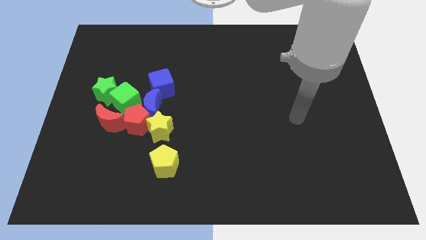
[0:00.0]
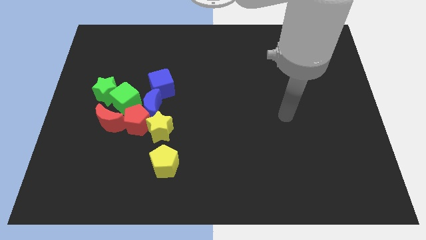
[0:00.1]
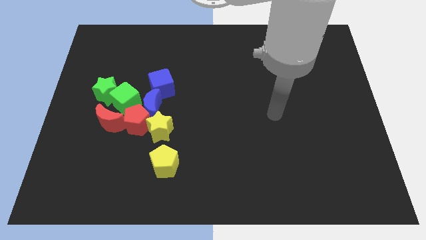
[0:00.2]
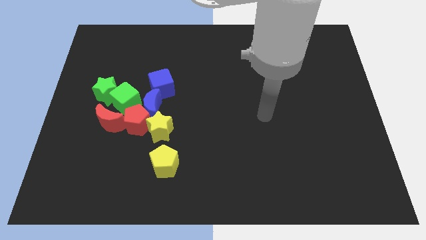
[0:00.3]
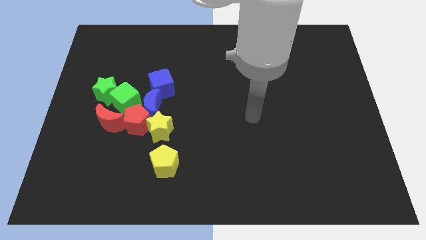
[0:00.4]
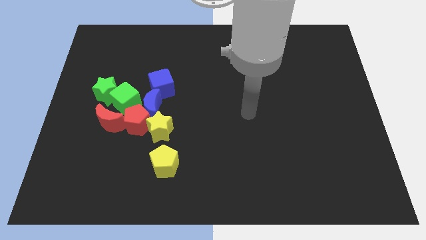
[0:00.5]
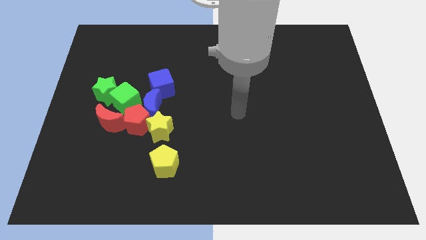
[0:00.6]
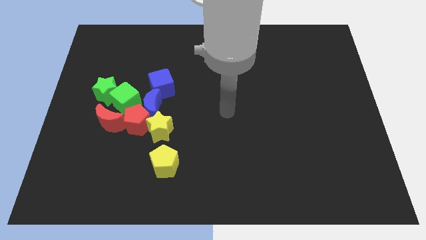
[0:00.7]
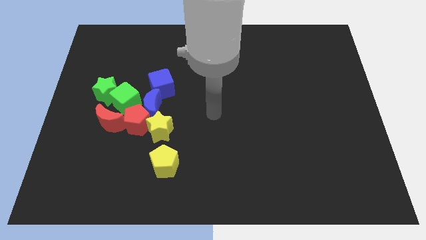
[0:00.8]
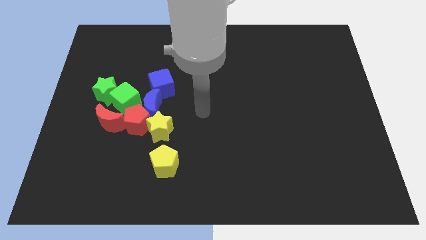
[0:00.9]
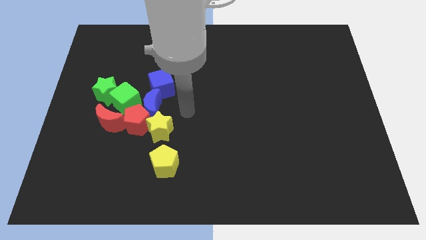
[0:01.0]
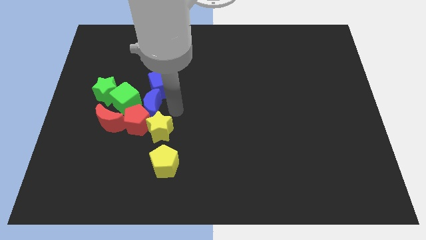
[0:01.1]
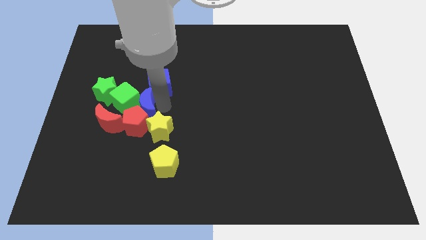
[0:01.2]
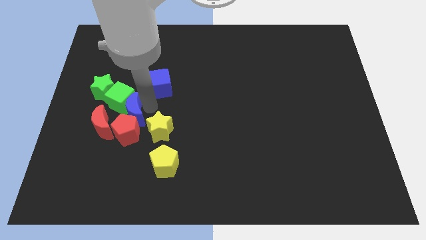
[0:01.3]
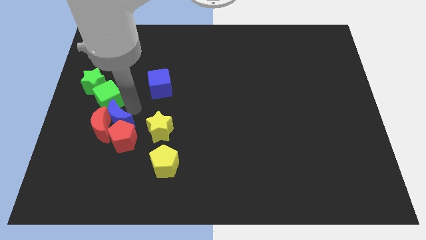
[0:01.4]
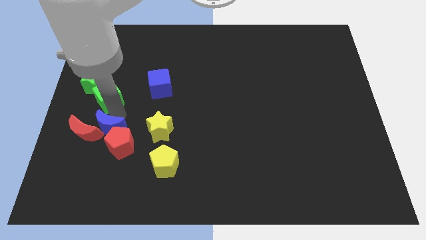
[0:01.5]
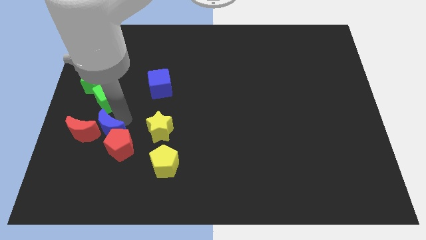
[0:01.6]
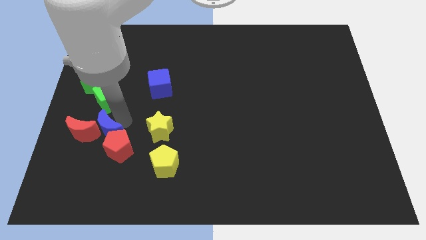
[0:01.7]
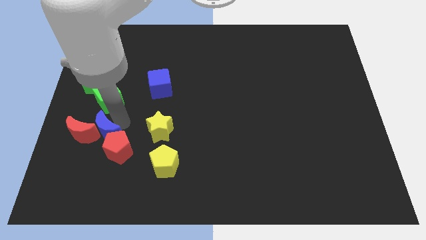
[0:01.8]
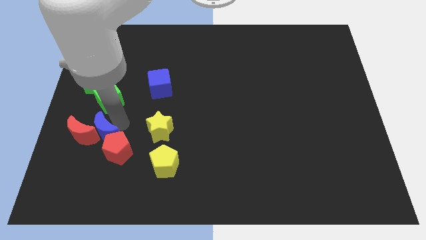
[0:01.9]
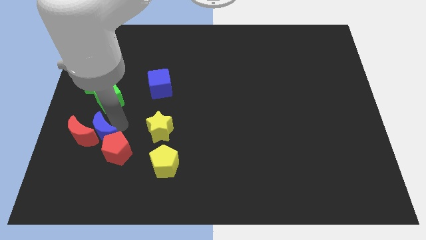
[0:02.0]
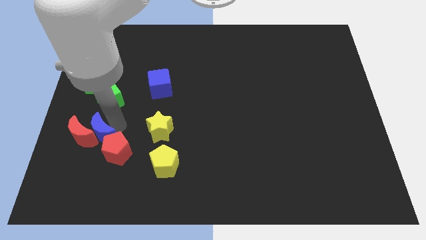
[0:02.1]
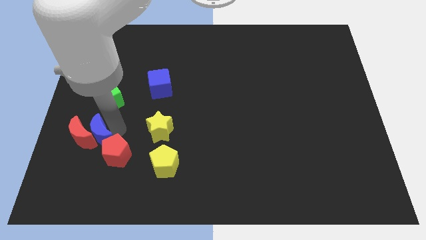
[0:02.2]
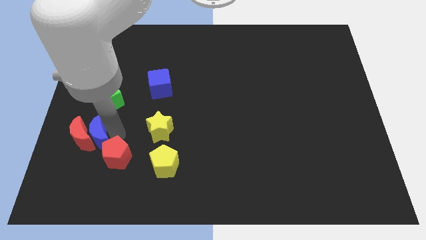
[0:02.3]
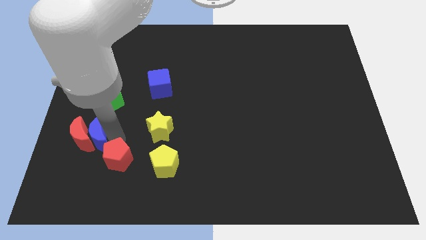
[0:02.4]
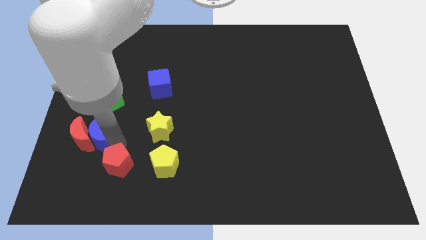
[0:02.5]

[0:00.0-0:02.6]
separate the red pentagon from the group

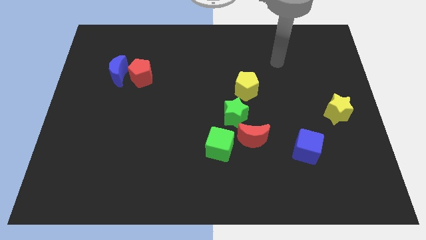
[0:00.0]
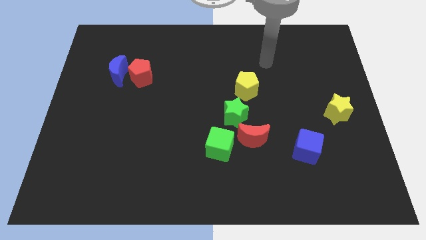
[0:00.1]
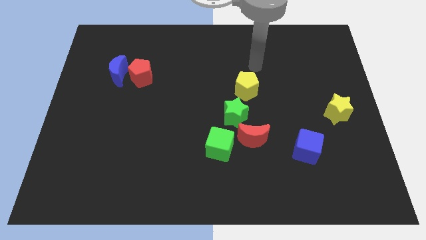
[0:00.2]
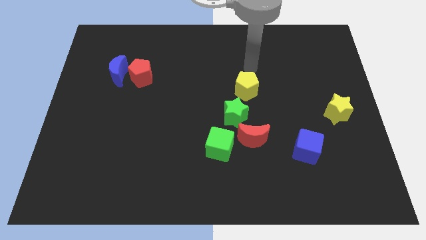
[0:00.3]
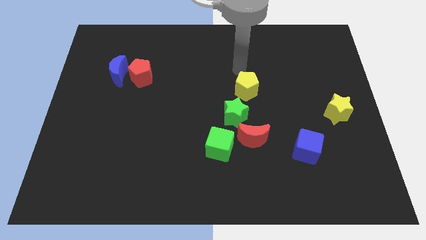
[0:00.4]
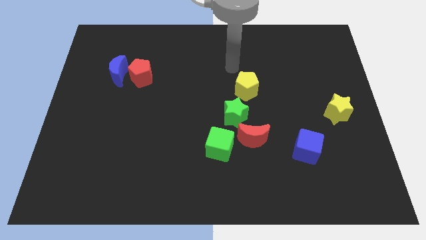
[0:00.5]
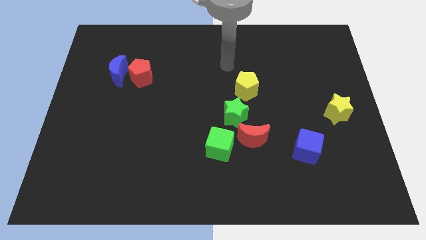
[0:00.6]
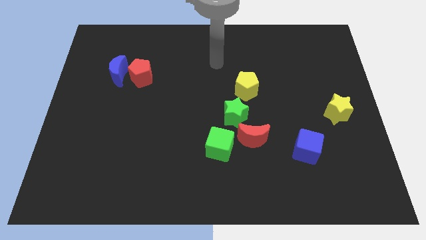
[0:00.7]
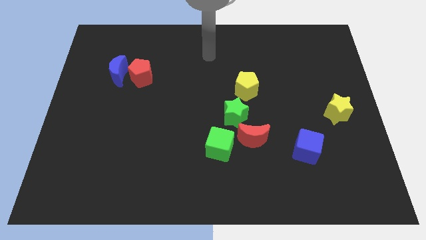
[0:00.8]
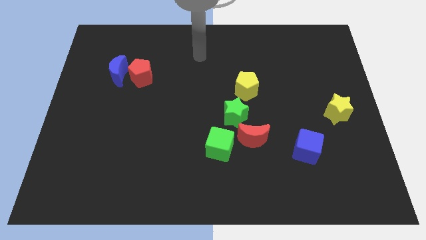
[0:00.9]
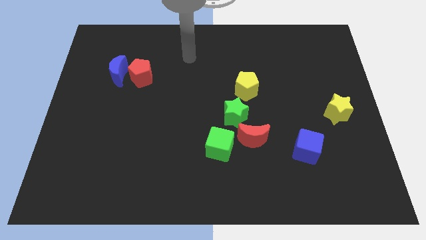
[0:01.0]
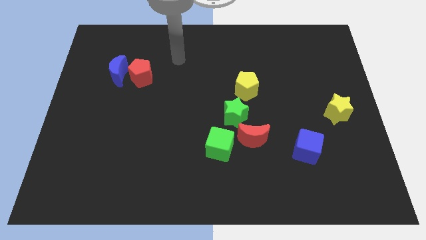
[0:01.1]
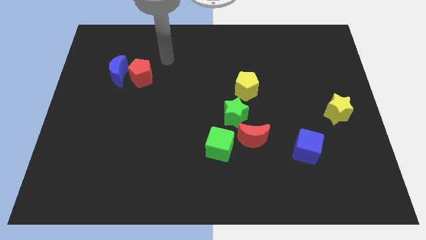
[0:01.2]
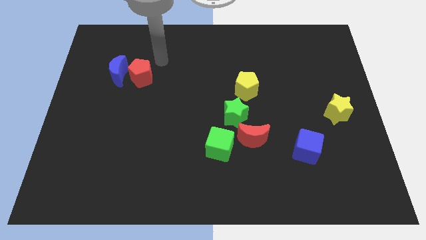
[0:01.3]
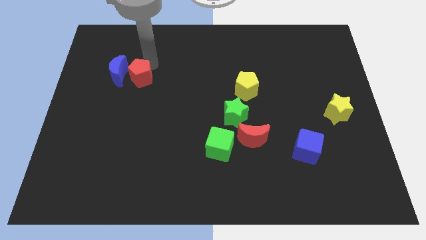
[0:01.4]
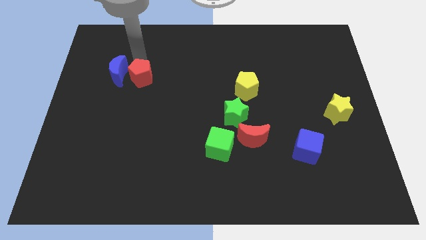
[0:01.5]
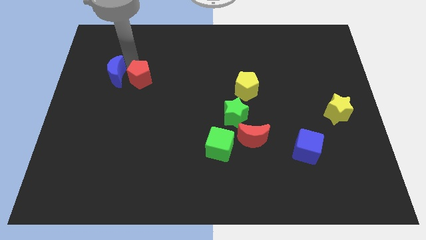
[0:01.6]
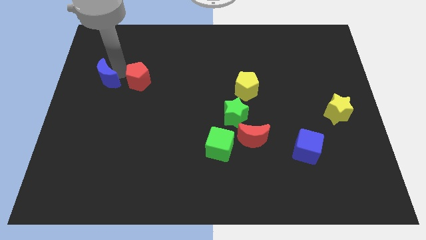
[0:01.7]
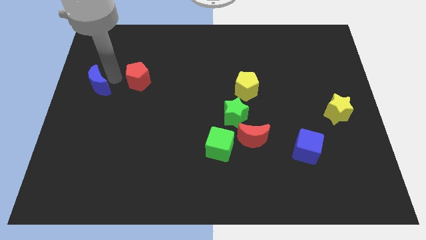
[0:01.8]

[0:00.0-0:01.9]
move the red pentagon away from the blue moon

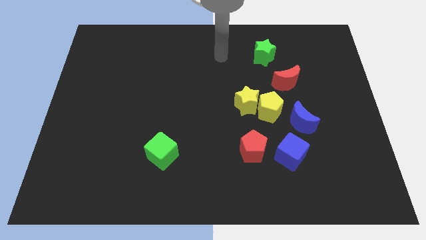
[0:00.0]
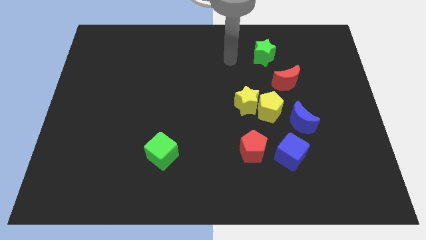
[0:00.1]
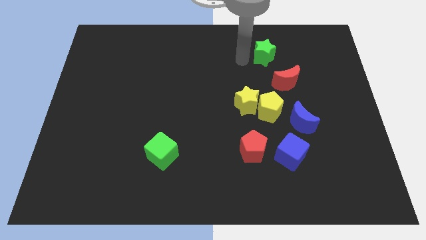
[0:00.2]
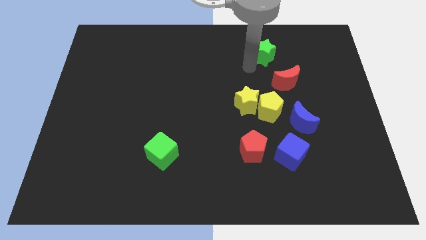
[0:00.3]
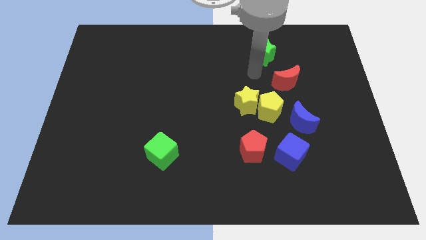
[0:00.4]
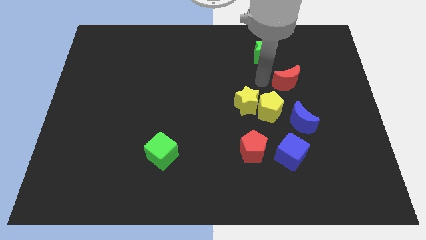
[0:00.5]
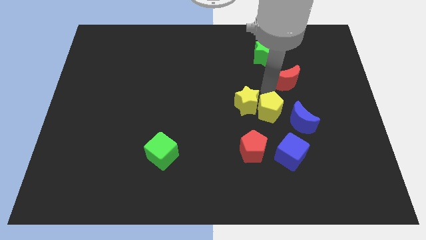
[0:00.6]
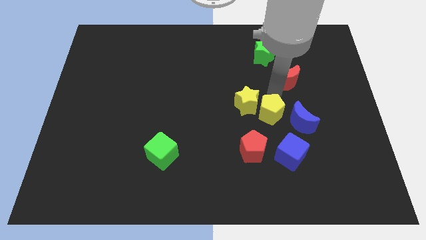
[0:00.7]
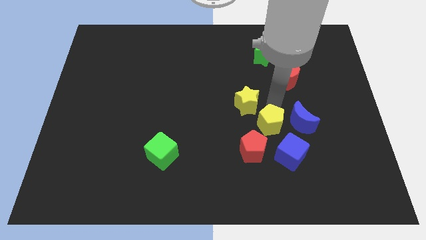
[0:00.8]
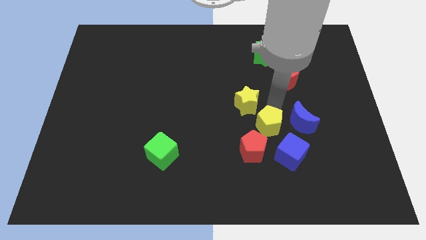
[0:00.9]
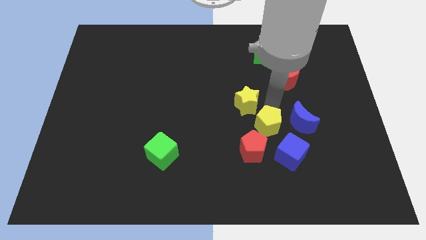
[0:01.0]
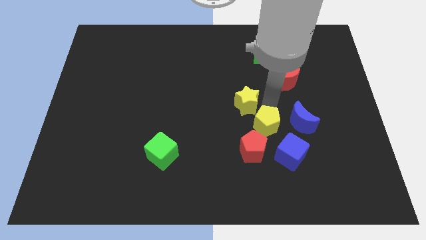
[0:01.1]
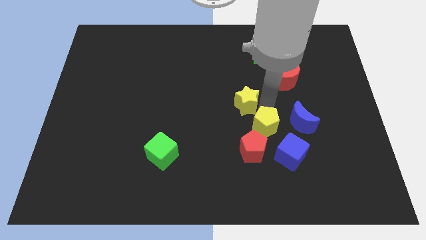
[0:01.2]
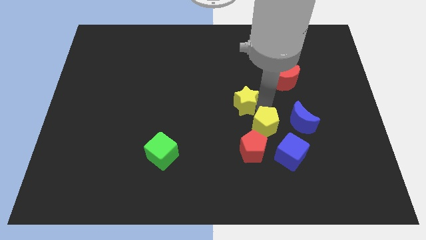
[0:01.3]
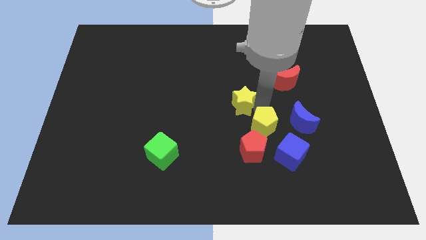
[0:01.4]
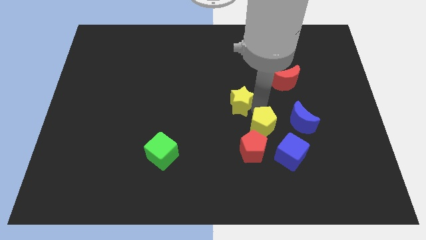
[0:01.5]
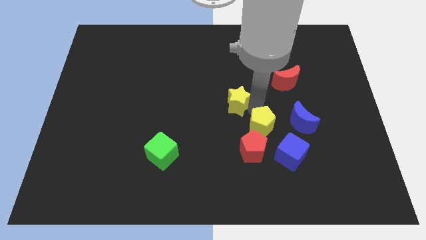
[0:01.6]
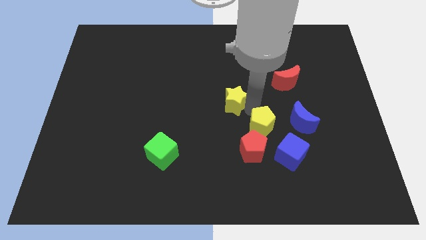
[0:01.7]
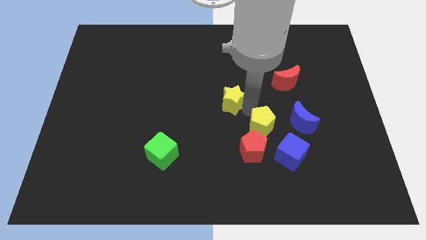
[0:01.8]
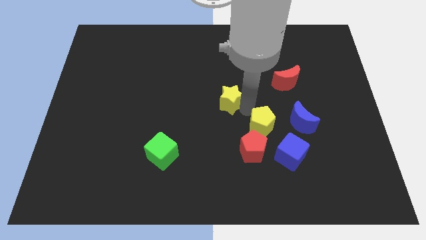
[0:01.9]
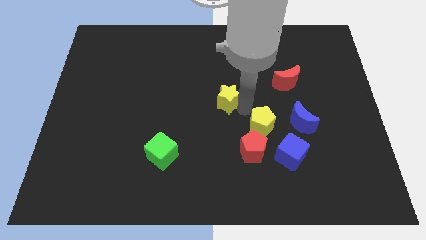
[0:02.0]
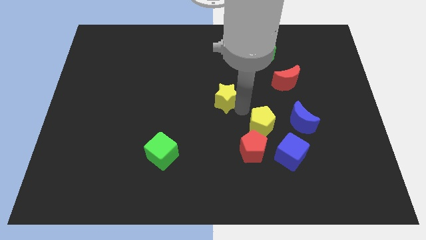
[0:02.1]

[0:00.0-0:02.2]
move the yellow star away from the yellow pentagon

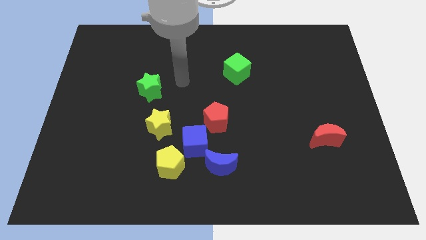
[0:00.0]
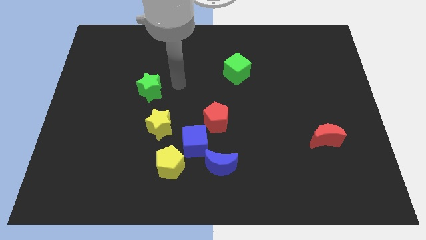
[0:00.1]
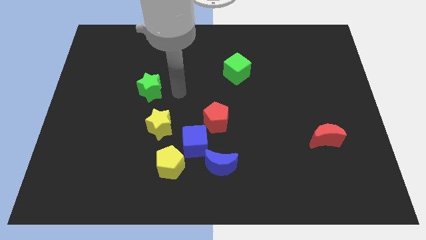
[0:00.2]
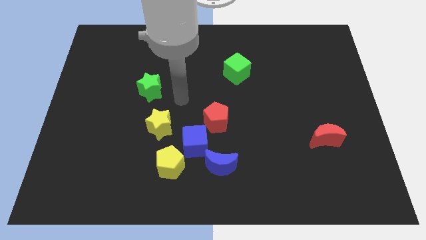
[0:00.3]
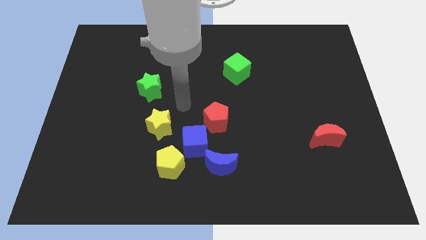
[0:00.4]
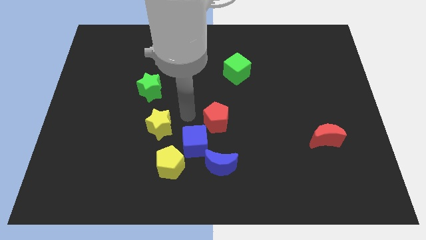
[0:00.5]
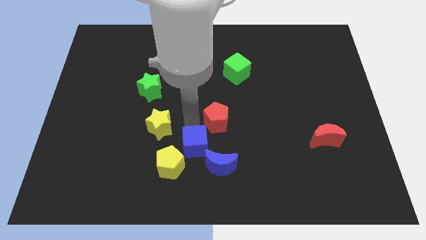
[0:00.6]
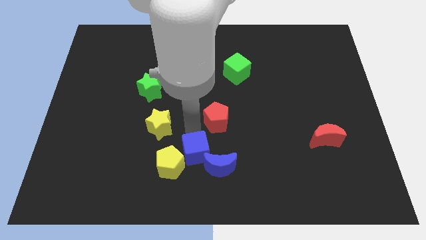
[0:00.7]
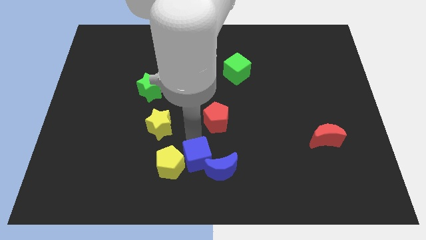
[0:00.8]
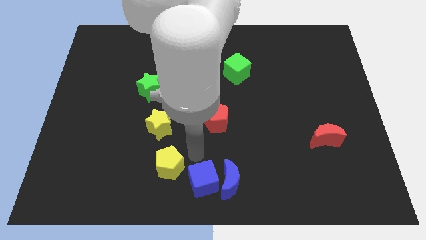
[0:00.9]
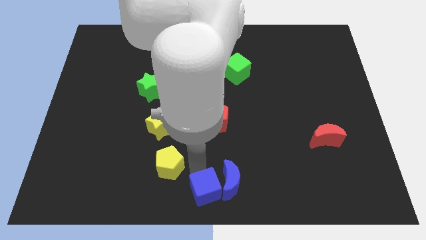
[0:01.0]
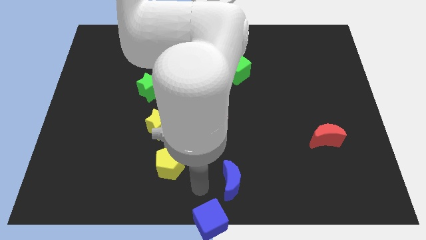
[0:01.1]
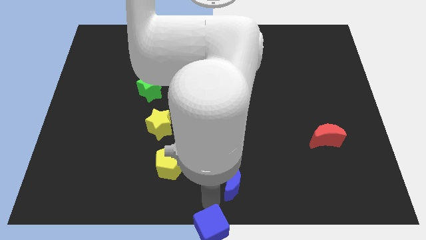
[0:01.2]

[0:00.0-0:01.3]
move the blue moon away from the blue cube

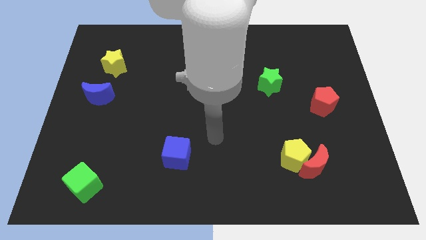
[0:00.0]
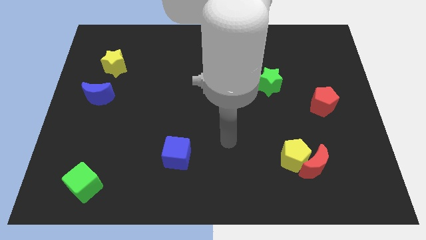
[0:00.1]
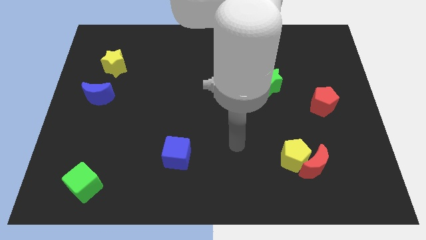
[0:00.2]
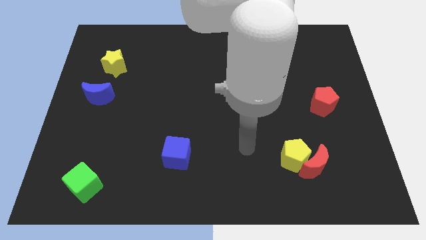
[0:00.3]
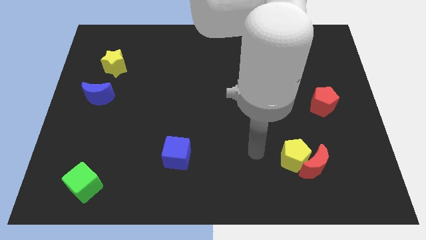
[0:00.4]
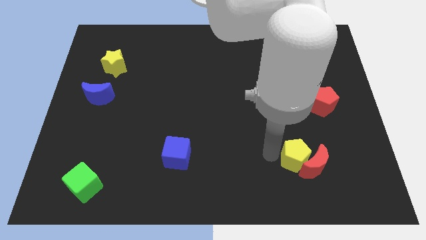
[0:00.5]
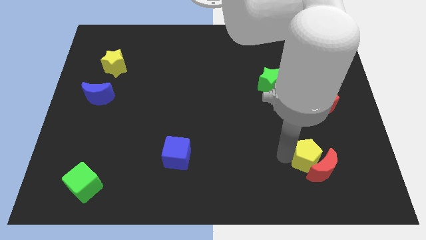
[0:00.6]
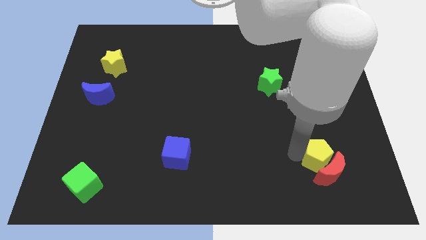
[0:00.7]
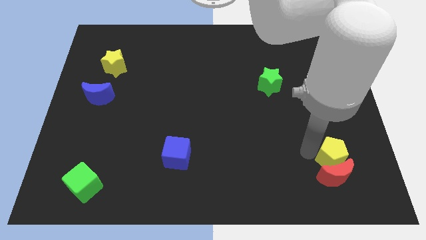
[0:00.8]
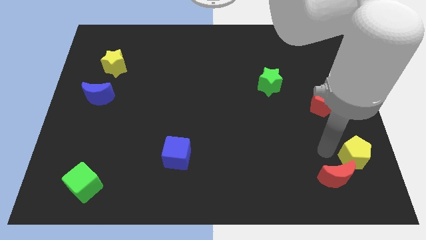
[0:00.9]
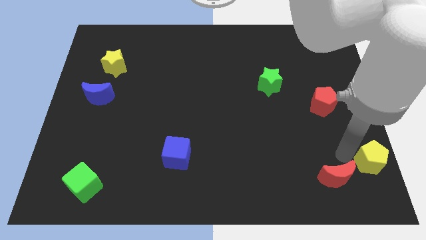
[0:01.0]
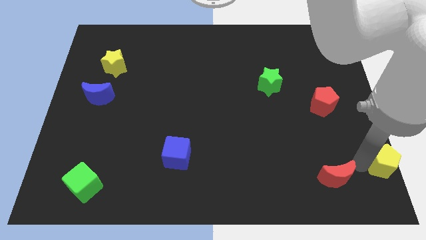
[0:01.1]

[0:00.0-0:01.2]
pull the red moon apart from the yellow pentagon
